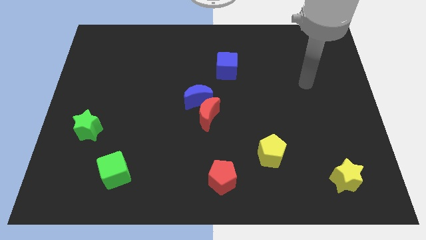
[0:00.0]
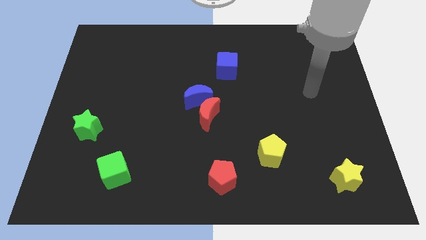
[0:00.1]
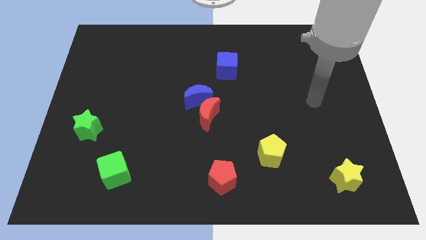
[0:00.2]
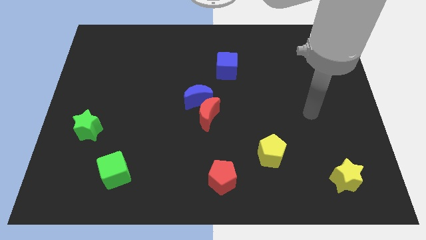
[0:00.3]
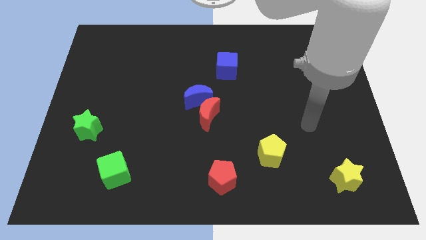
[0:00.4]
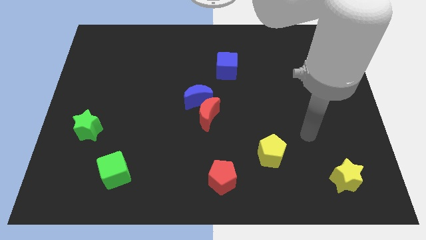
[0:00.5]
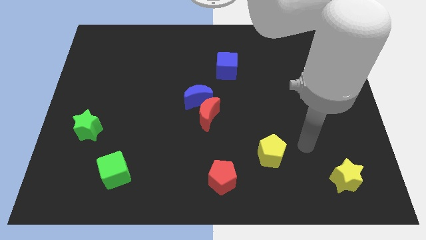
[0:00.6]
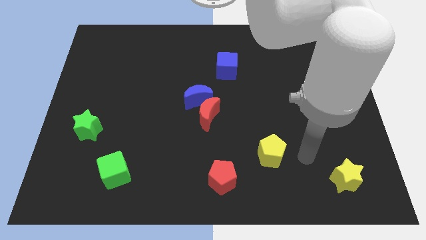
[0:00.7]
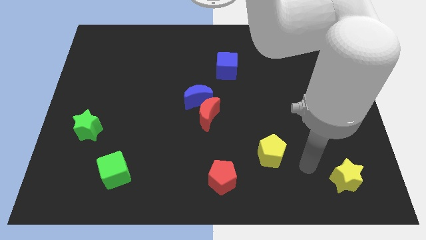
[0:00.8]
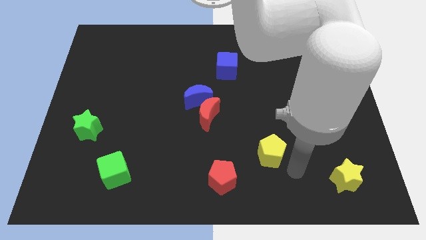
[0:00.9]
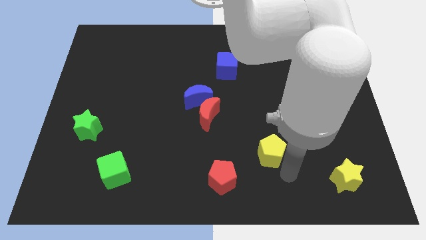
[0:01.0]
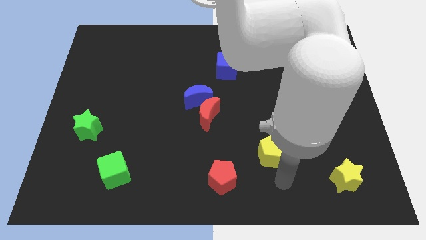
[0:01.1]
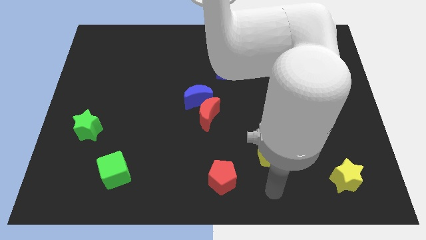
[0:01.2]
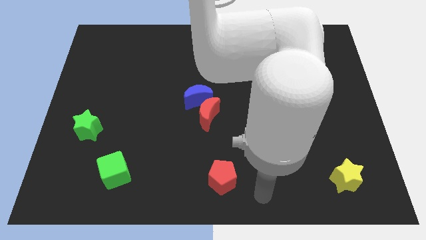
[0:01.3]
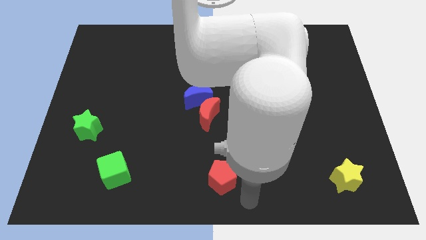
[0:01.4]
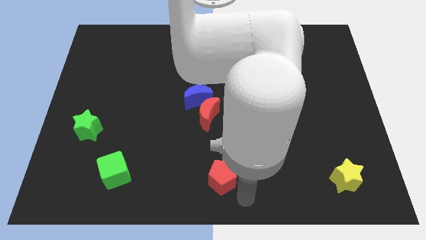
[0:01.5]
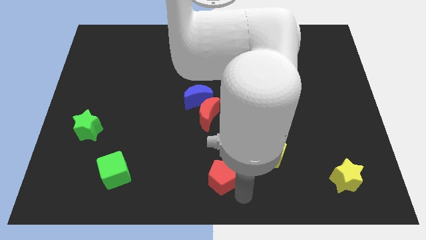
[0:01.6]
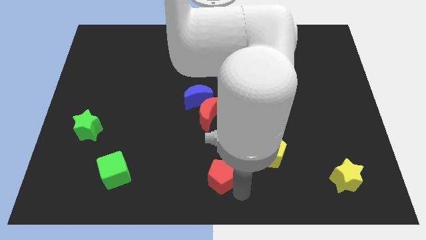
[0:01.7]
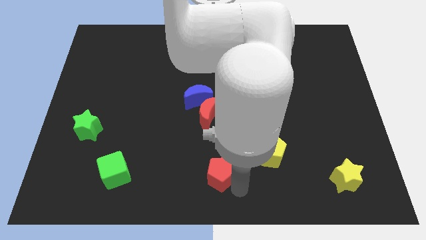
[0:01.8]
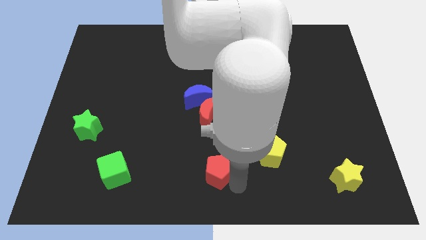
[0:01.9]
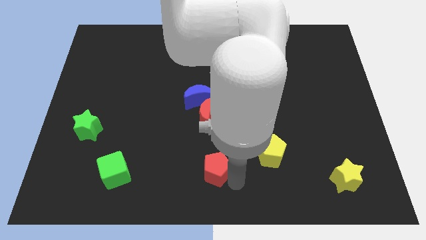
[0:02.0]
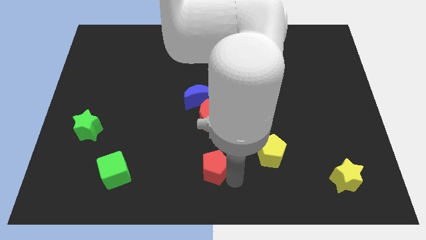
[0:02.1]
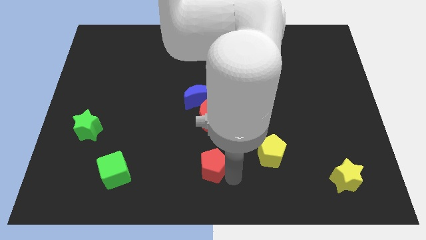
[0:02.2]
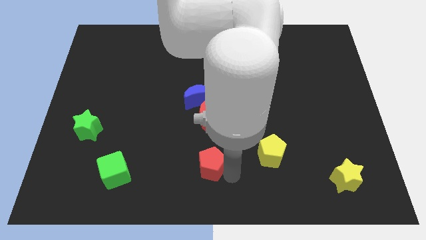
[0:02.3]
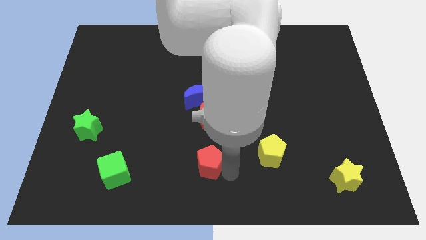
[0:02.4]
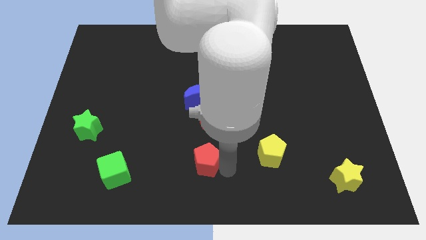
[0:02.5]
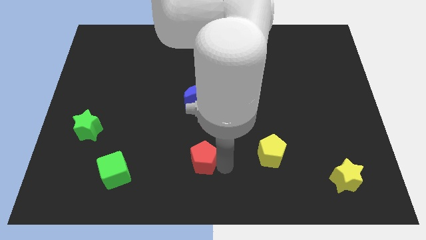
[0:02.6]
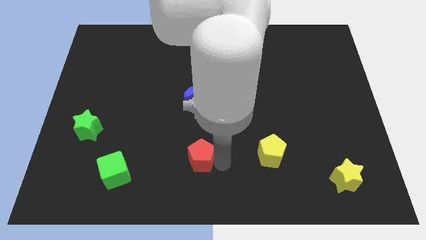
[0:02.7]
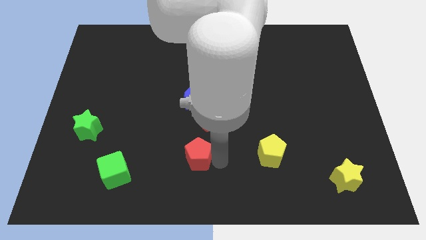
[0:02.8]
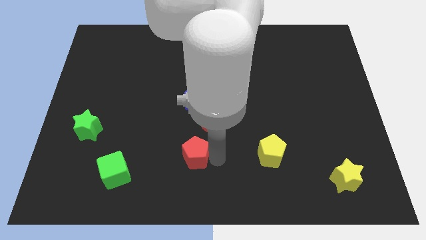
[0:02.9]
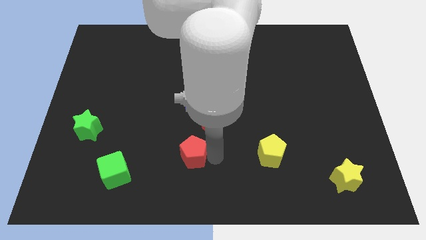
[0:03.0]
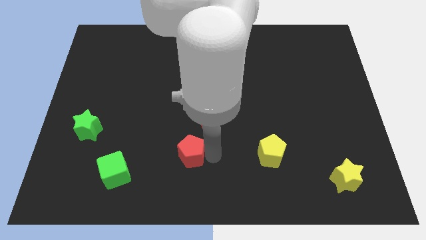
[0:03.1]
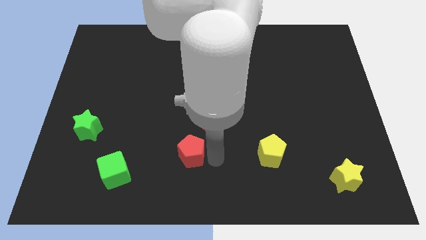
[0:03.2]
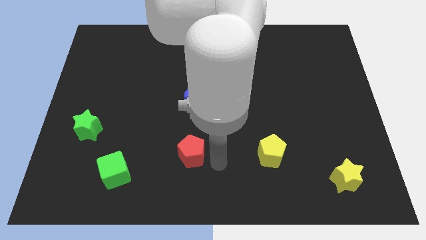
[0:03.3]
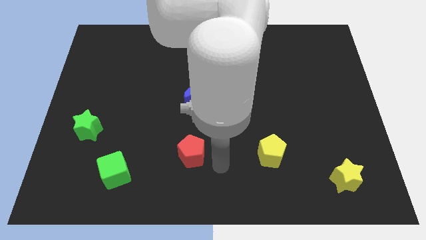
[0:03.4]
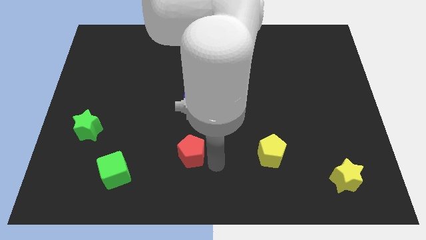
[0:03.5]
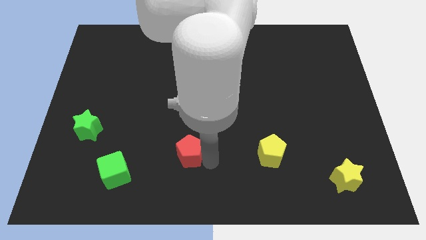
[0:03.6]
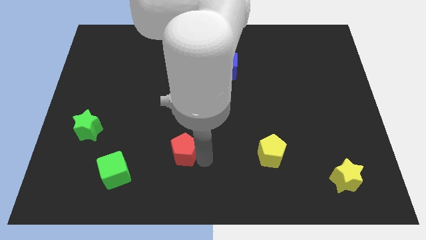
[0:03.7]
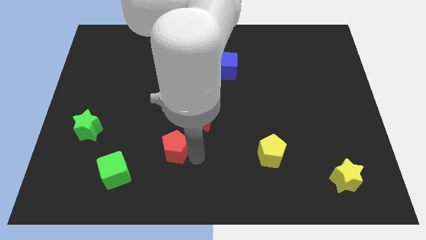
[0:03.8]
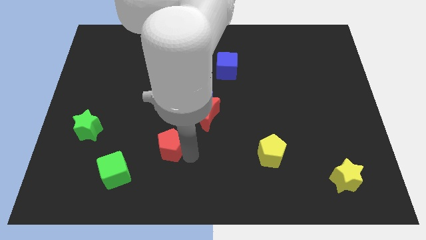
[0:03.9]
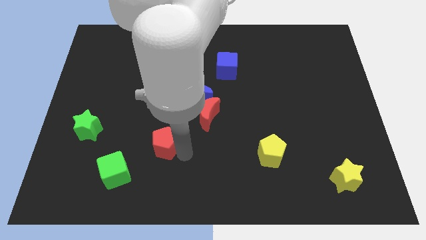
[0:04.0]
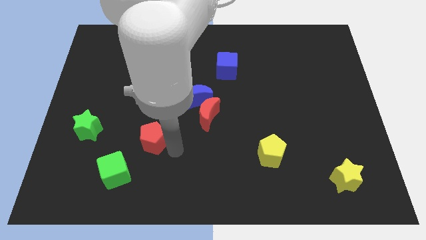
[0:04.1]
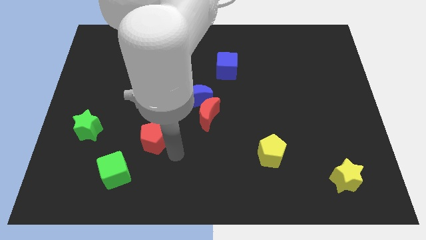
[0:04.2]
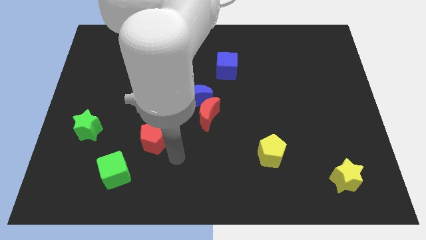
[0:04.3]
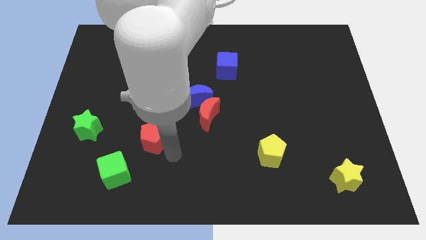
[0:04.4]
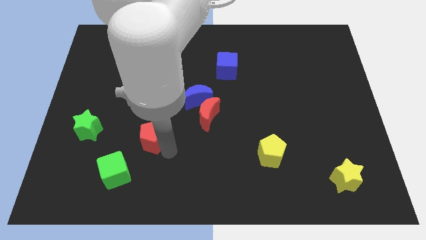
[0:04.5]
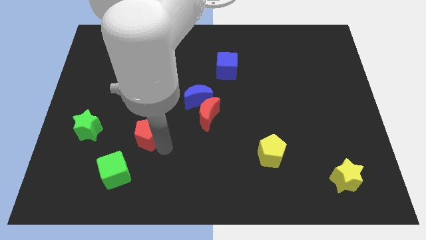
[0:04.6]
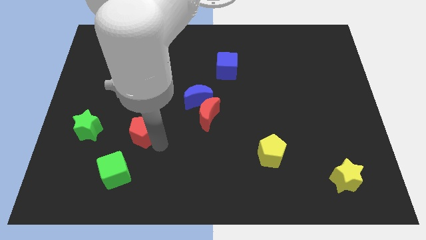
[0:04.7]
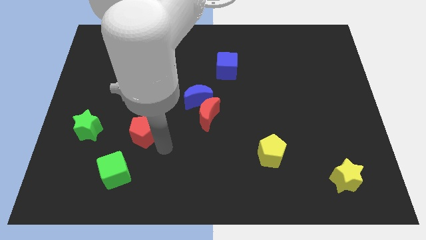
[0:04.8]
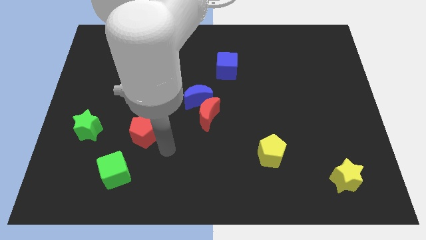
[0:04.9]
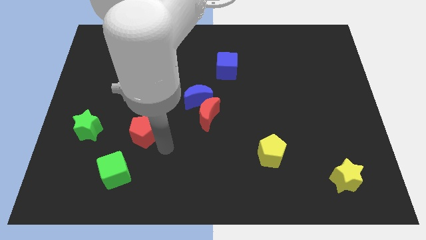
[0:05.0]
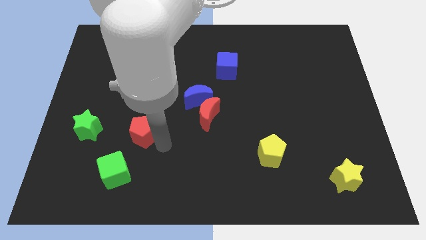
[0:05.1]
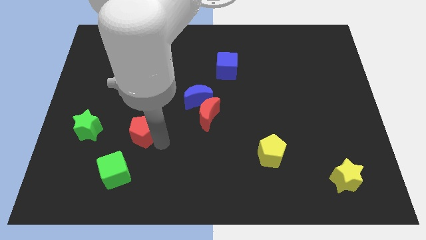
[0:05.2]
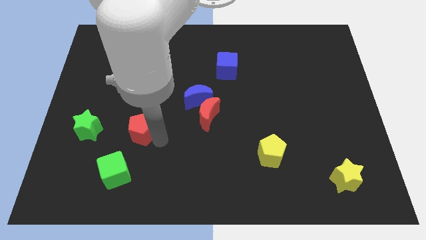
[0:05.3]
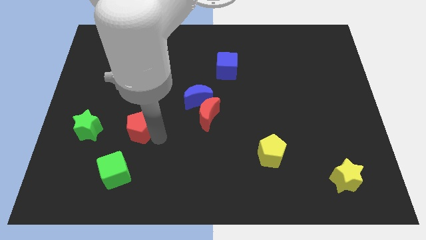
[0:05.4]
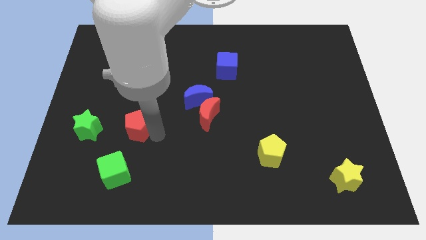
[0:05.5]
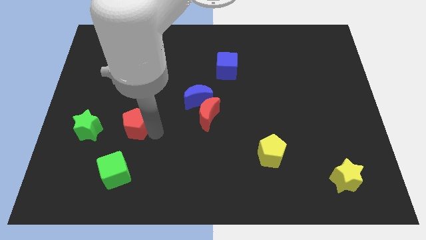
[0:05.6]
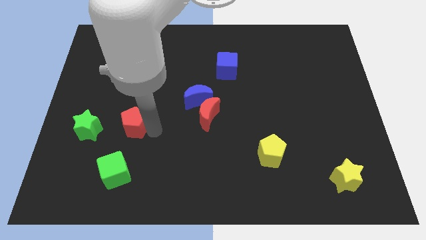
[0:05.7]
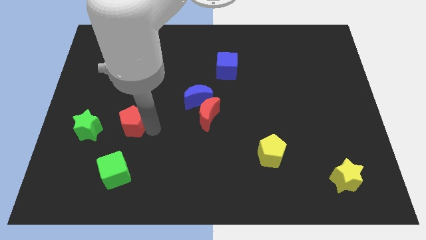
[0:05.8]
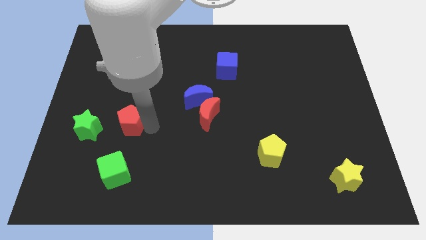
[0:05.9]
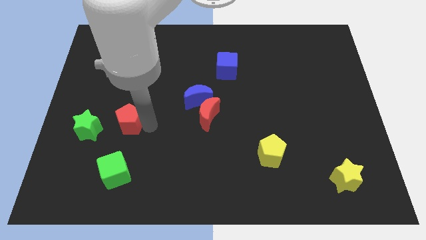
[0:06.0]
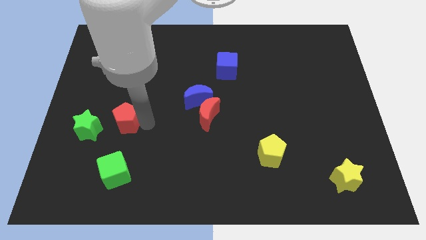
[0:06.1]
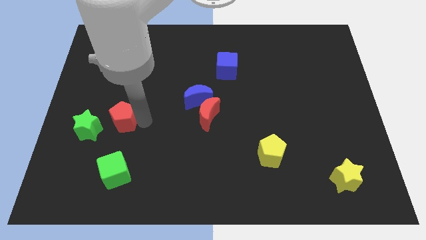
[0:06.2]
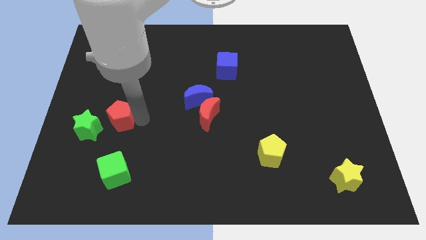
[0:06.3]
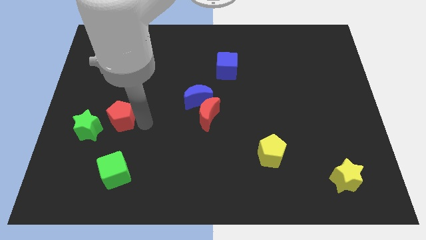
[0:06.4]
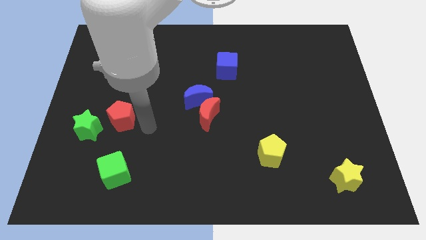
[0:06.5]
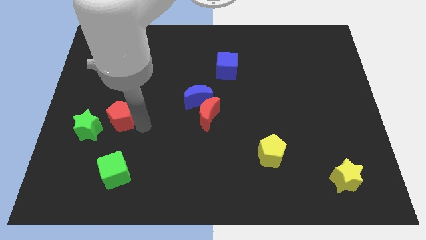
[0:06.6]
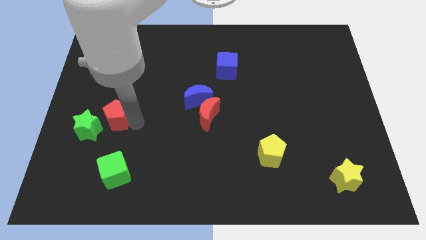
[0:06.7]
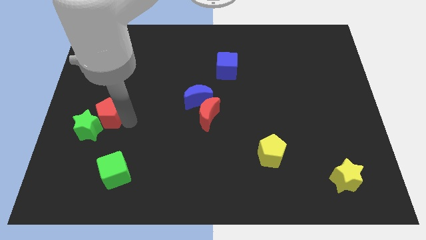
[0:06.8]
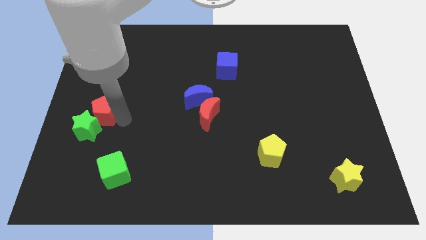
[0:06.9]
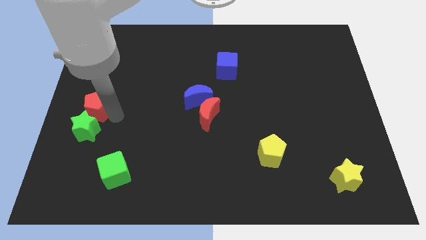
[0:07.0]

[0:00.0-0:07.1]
slide the red pentagon to the left side of the board
